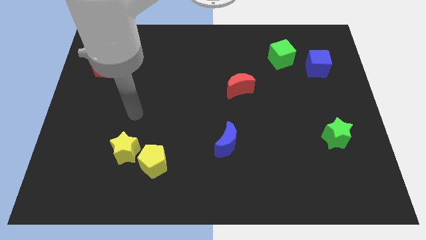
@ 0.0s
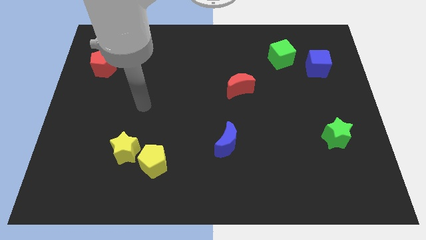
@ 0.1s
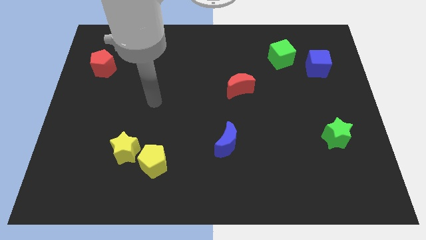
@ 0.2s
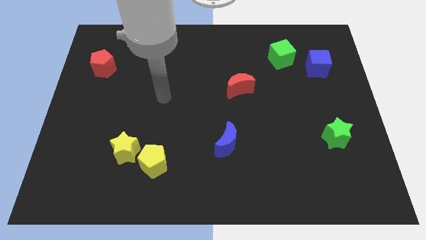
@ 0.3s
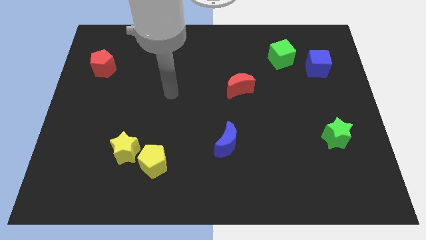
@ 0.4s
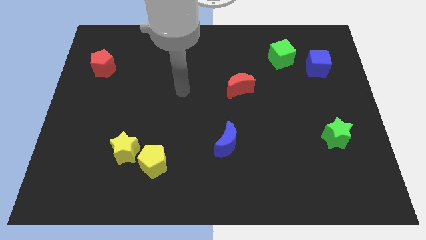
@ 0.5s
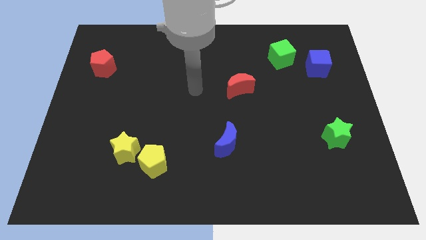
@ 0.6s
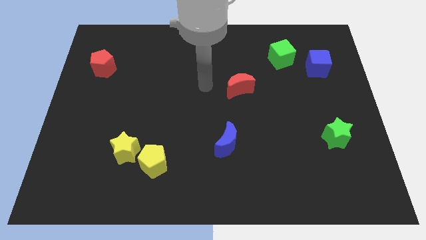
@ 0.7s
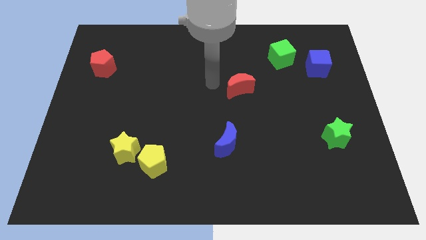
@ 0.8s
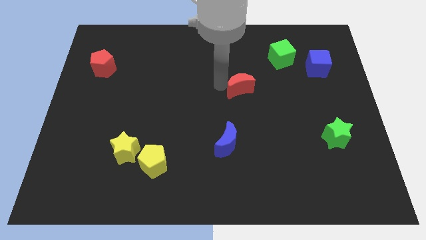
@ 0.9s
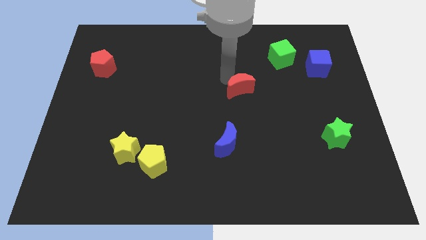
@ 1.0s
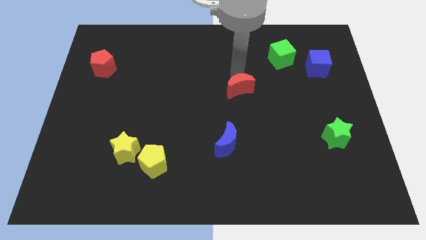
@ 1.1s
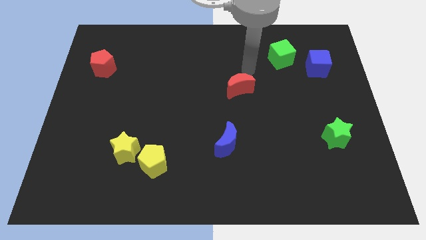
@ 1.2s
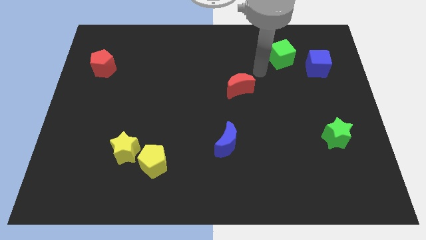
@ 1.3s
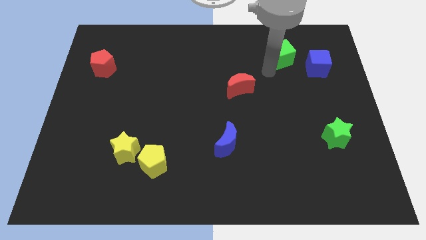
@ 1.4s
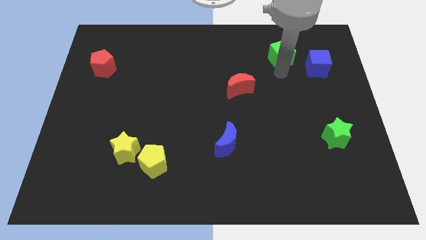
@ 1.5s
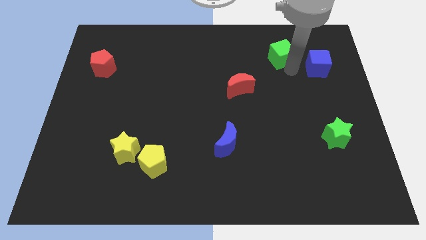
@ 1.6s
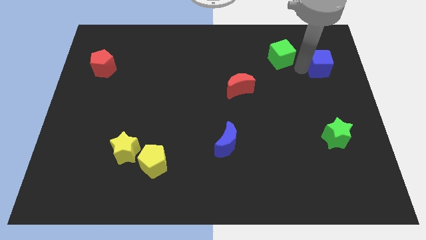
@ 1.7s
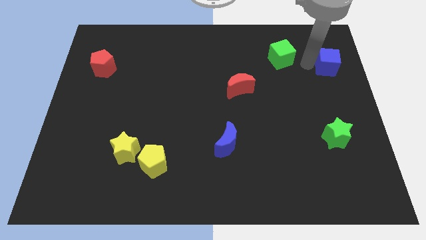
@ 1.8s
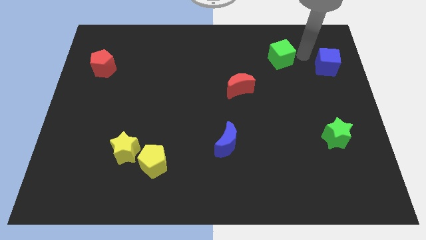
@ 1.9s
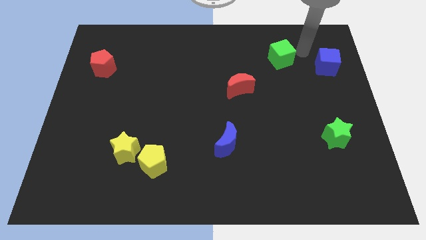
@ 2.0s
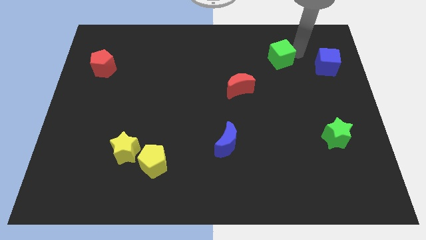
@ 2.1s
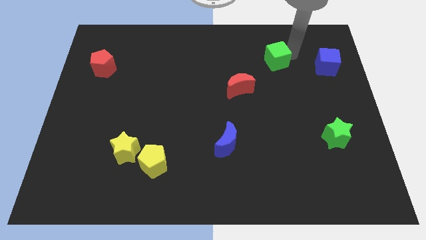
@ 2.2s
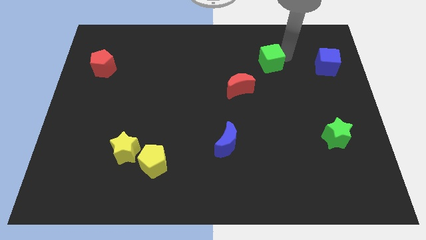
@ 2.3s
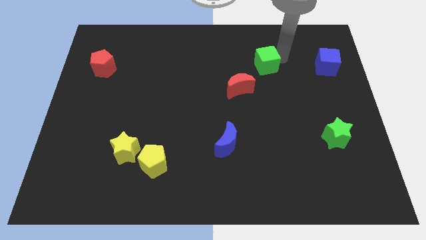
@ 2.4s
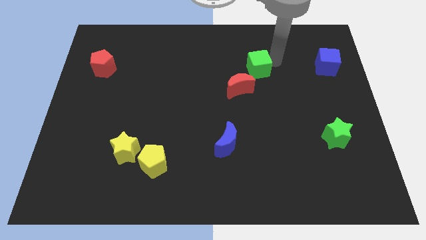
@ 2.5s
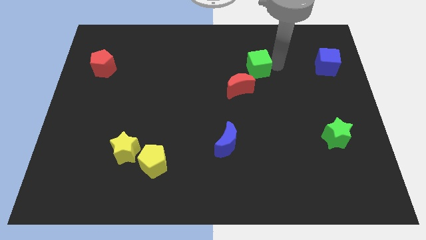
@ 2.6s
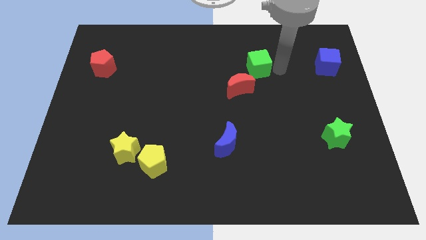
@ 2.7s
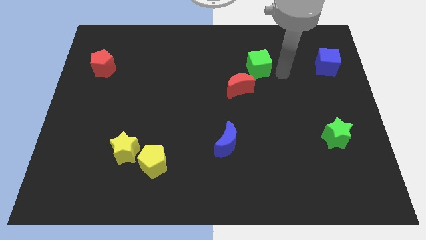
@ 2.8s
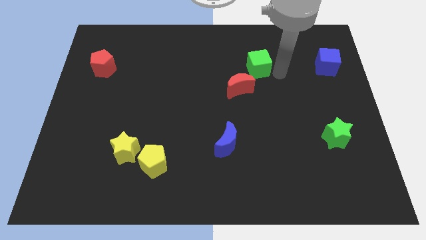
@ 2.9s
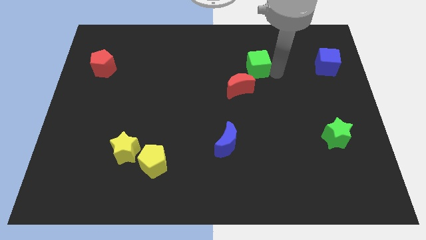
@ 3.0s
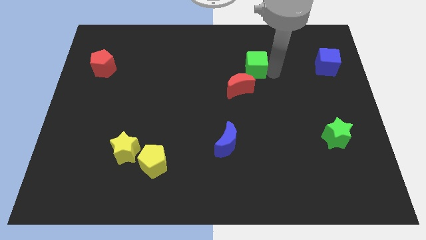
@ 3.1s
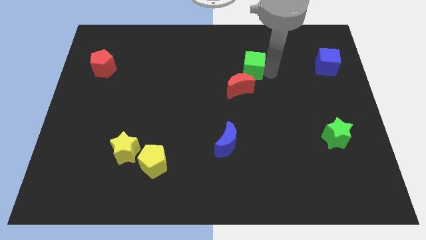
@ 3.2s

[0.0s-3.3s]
slide the green cube somewhat left

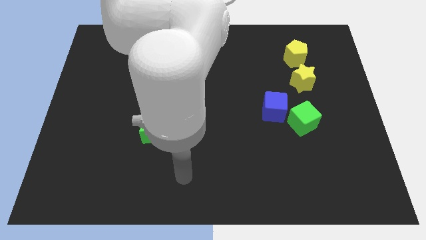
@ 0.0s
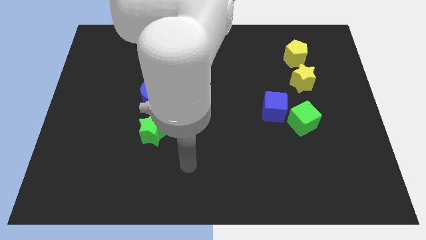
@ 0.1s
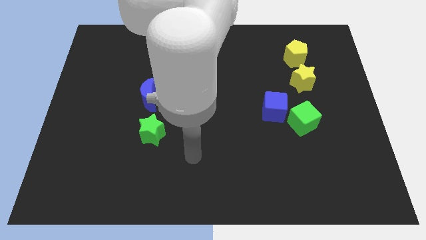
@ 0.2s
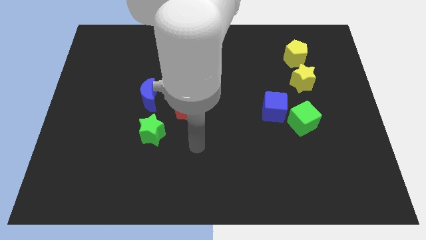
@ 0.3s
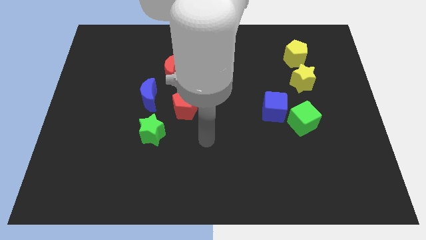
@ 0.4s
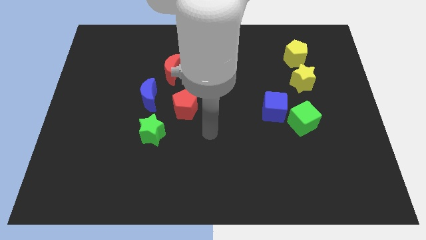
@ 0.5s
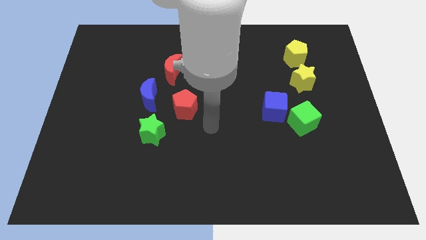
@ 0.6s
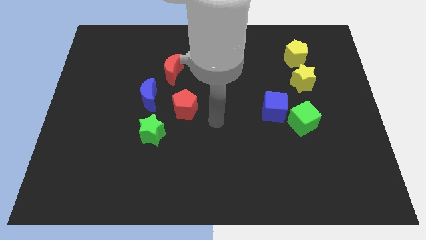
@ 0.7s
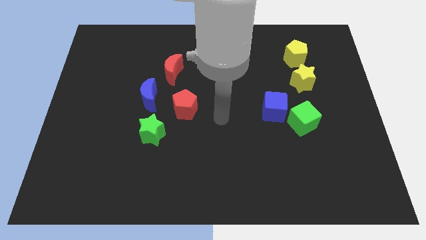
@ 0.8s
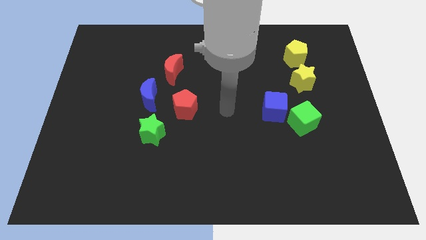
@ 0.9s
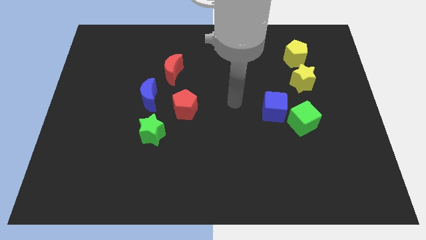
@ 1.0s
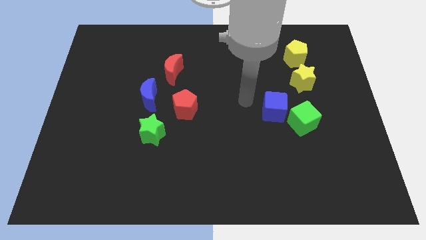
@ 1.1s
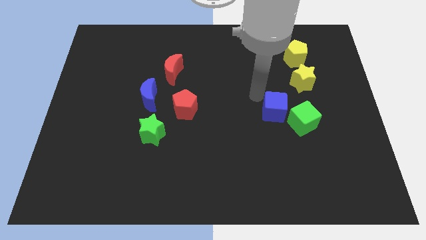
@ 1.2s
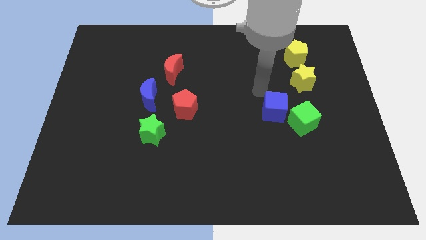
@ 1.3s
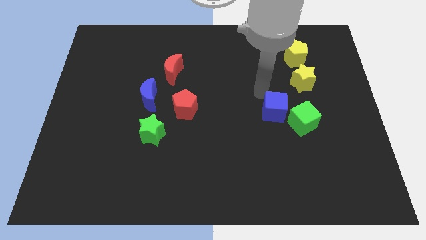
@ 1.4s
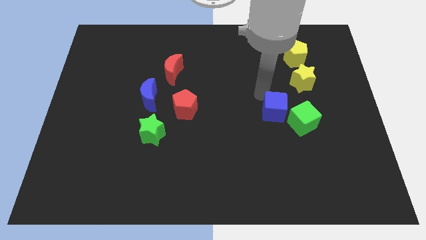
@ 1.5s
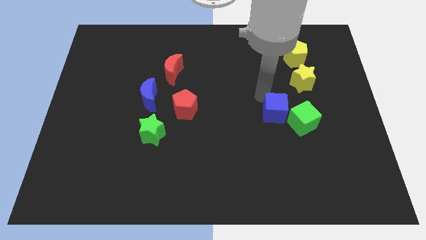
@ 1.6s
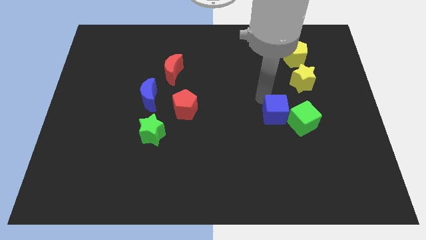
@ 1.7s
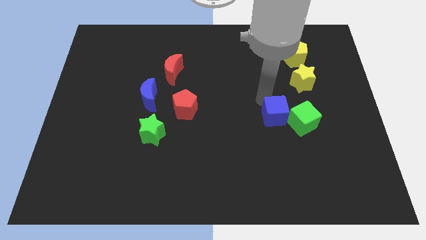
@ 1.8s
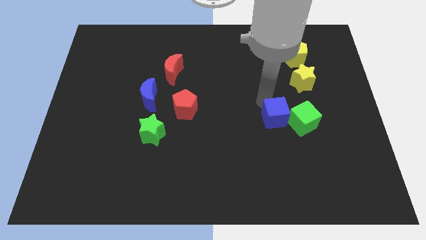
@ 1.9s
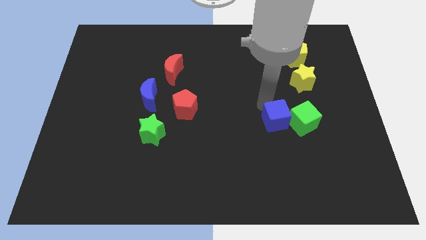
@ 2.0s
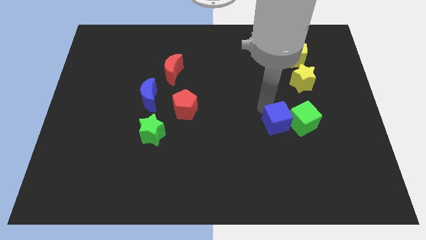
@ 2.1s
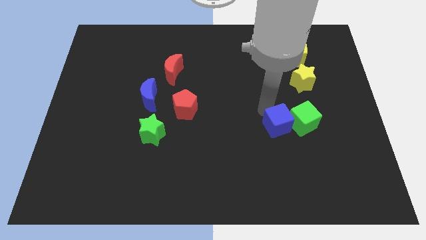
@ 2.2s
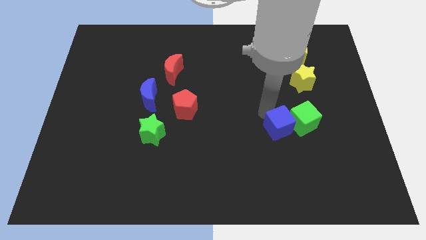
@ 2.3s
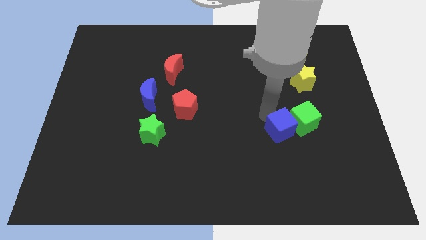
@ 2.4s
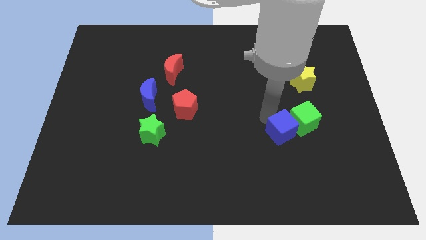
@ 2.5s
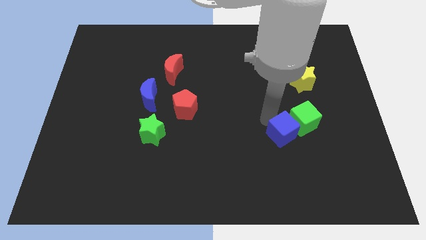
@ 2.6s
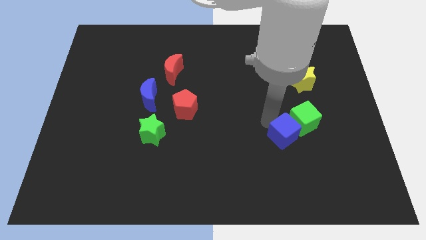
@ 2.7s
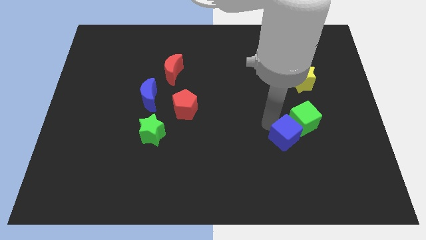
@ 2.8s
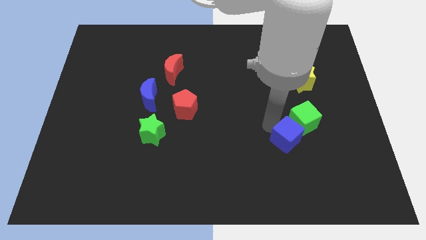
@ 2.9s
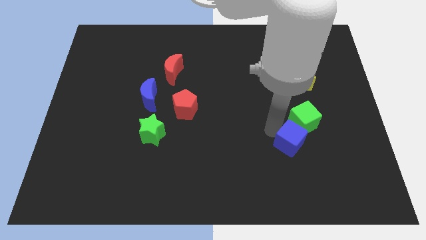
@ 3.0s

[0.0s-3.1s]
move the blue cube a little bit downwards and to the right diagonally

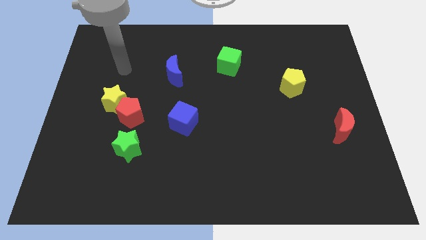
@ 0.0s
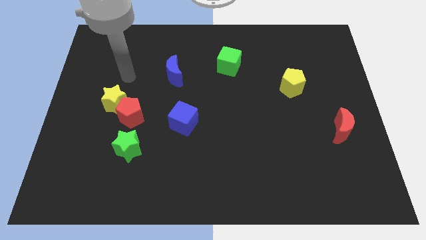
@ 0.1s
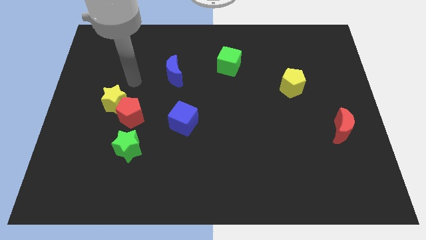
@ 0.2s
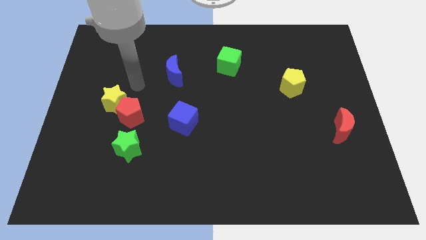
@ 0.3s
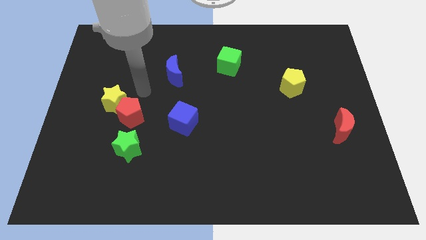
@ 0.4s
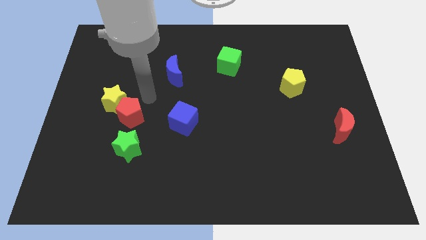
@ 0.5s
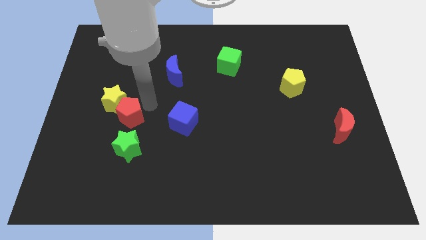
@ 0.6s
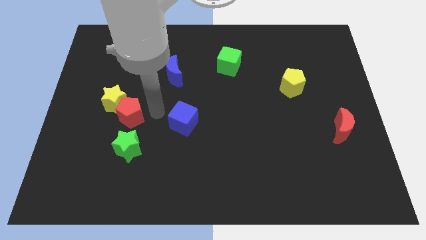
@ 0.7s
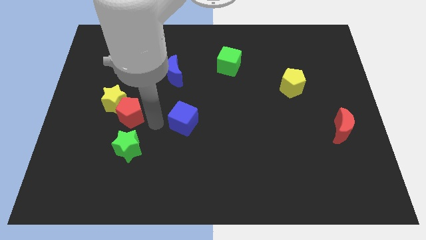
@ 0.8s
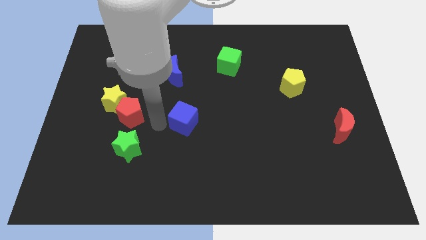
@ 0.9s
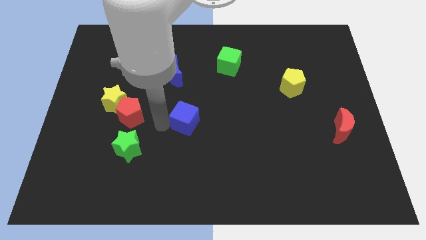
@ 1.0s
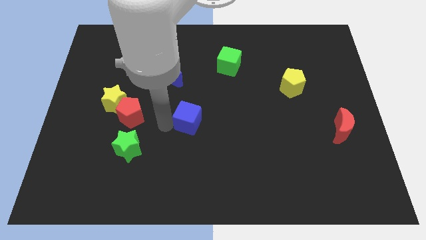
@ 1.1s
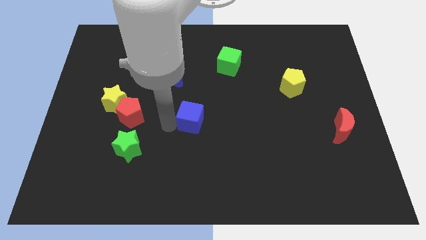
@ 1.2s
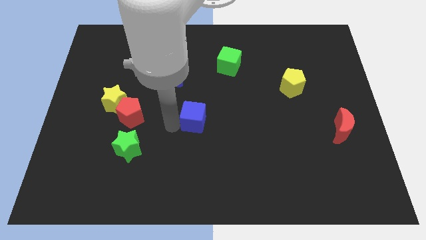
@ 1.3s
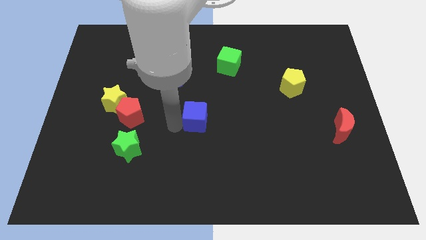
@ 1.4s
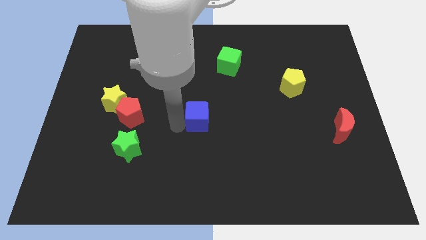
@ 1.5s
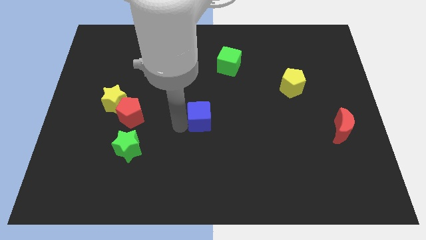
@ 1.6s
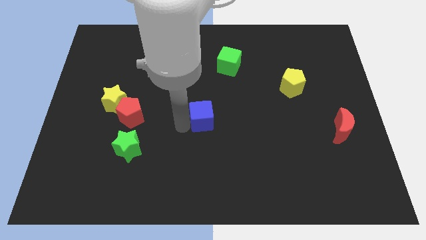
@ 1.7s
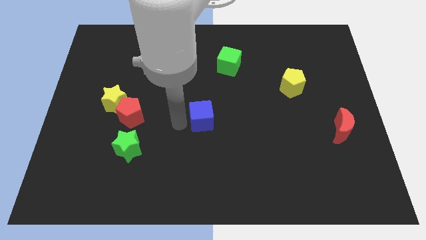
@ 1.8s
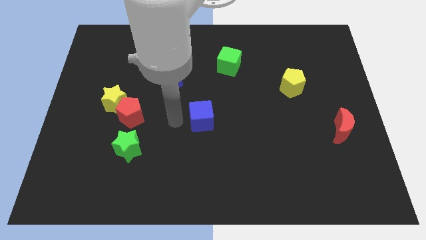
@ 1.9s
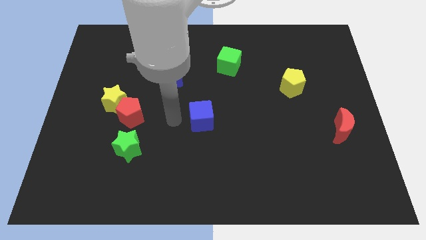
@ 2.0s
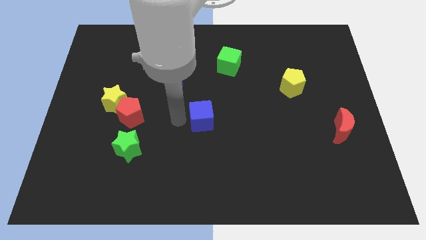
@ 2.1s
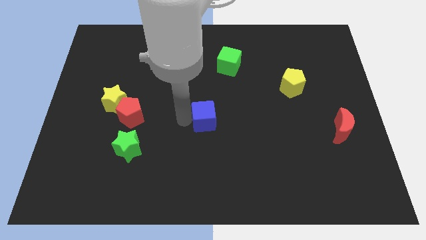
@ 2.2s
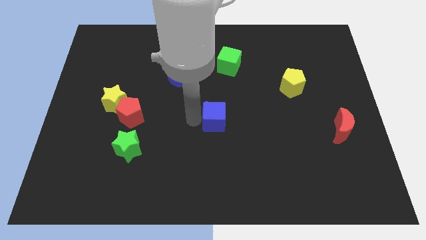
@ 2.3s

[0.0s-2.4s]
slightly move the blue cube right
